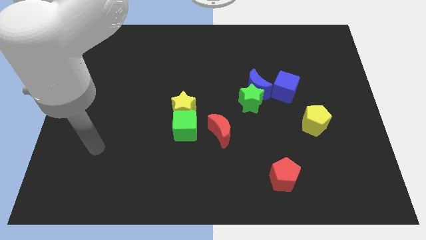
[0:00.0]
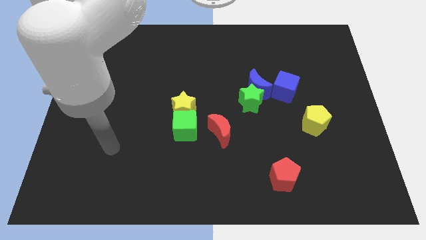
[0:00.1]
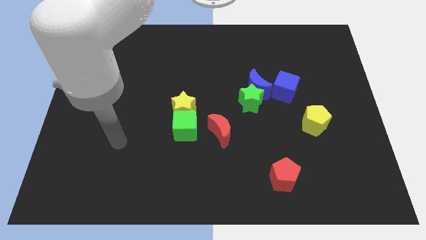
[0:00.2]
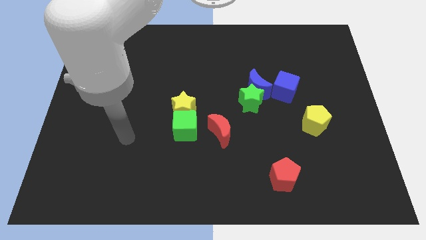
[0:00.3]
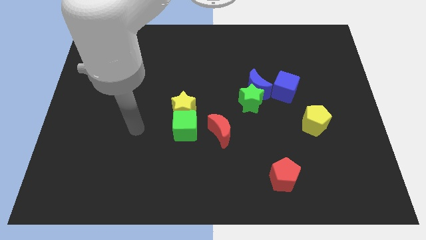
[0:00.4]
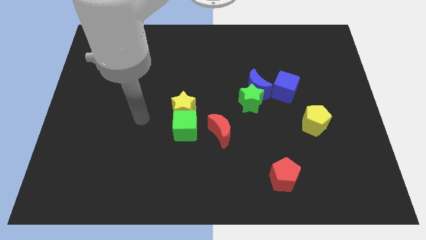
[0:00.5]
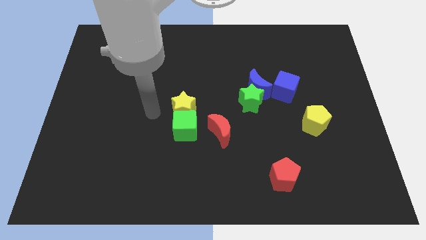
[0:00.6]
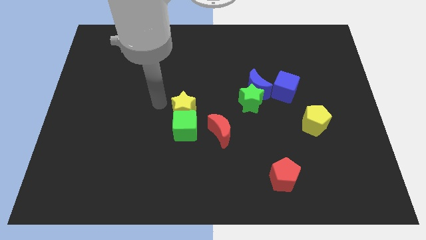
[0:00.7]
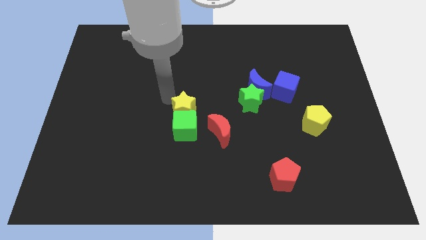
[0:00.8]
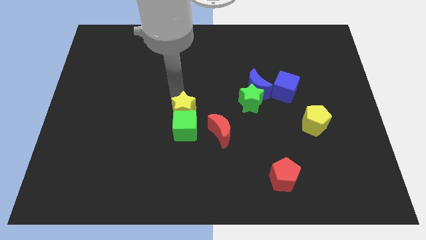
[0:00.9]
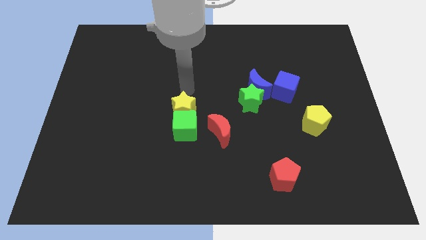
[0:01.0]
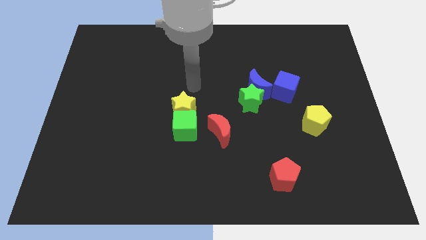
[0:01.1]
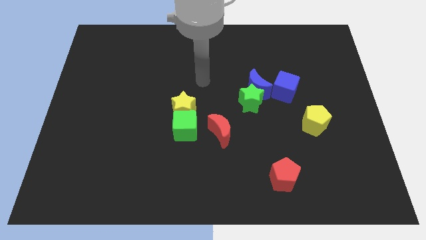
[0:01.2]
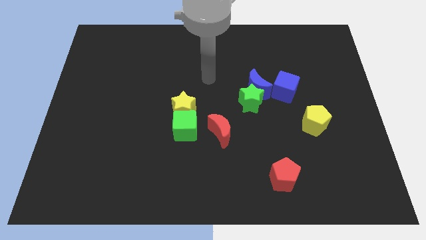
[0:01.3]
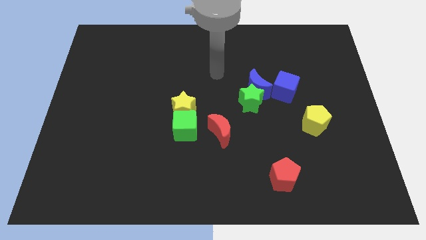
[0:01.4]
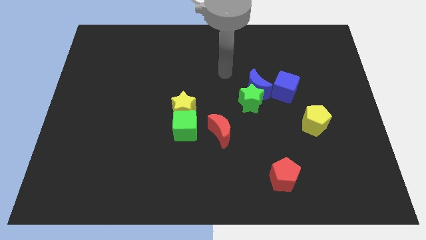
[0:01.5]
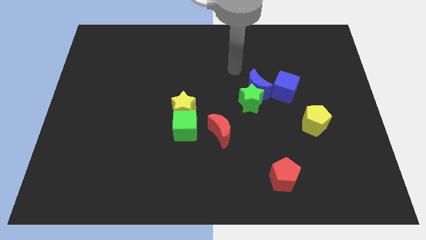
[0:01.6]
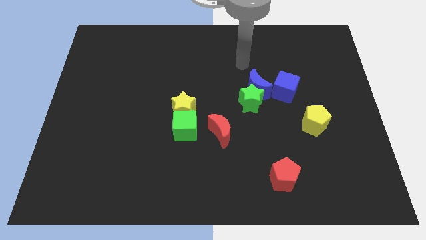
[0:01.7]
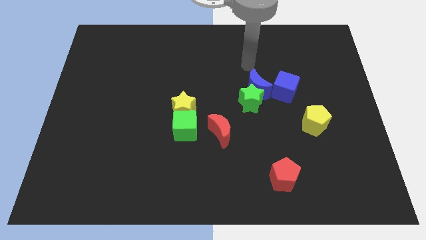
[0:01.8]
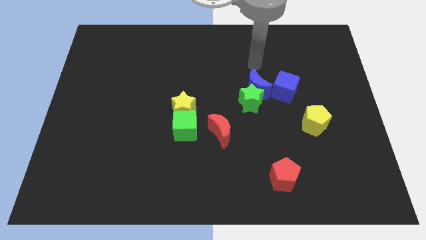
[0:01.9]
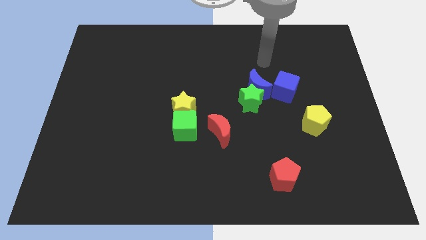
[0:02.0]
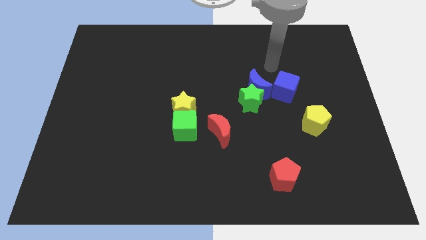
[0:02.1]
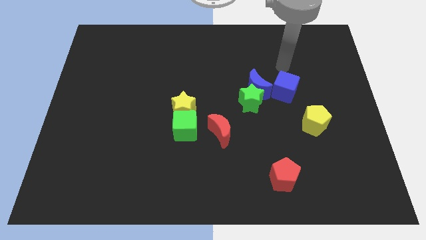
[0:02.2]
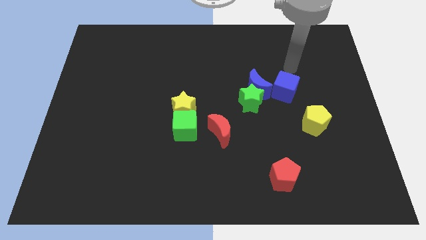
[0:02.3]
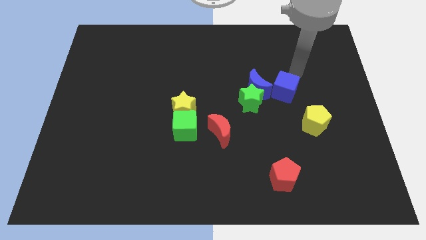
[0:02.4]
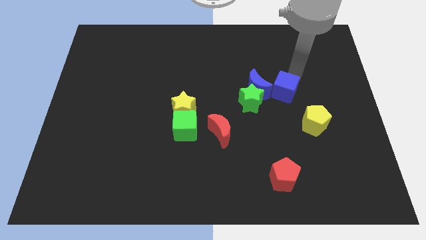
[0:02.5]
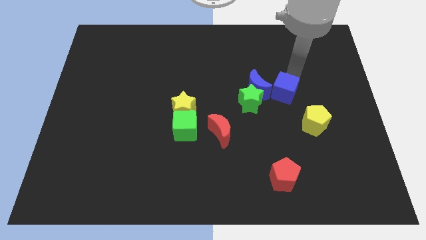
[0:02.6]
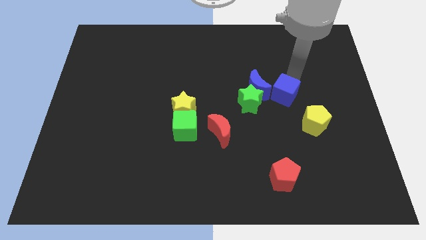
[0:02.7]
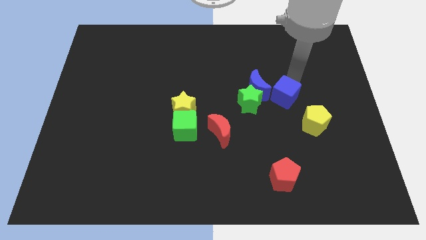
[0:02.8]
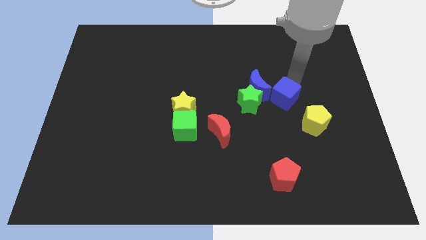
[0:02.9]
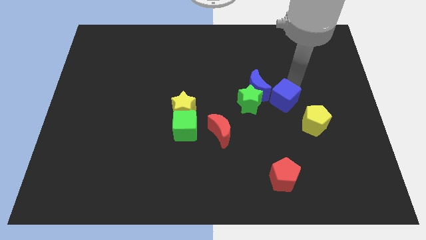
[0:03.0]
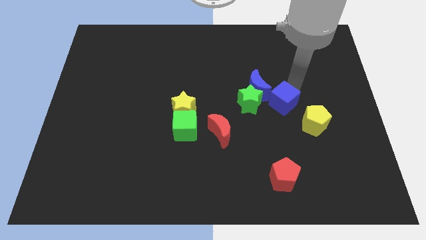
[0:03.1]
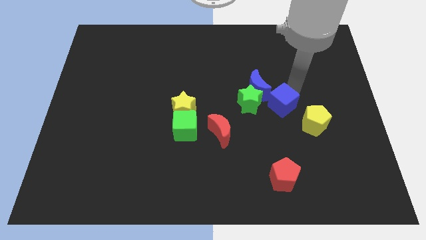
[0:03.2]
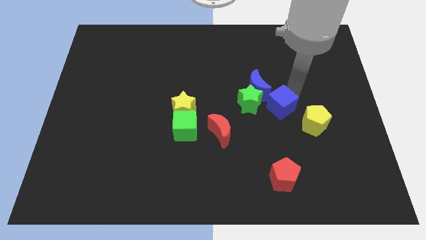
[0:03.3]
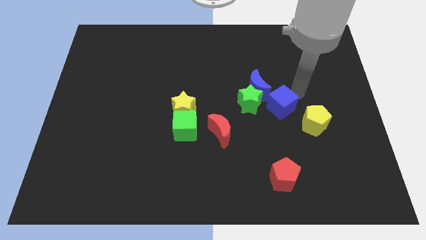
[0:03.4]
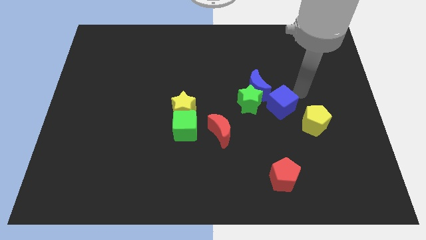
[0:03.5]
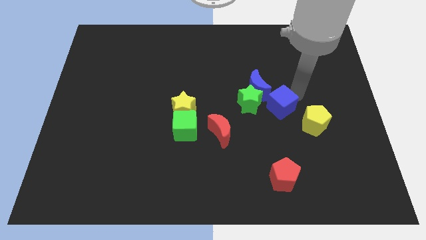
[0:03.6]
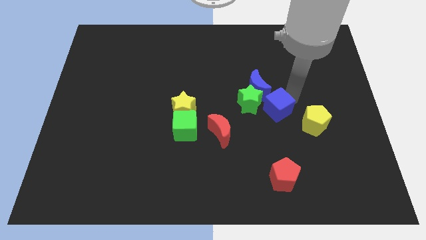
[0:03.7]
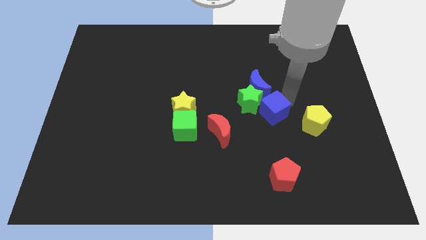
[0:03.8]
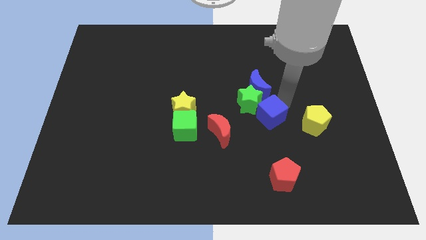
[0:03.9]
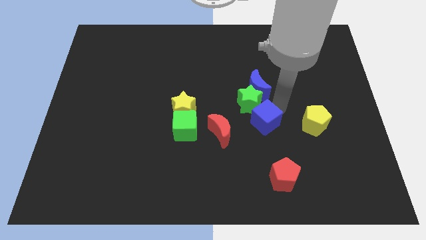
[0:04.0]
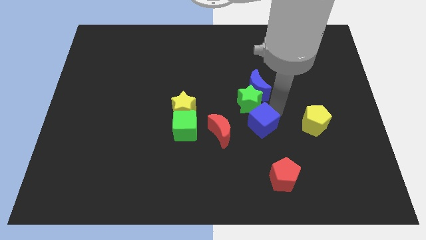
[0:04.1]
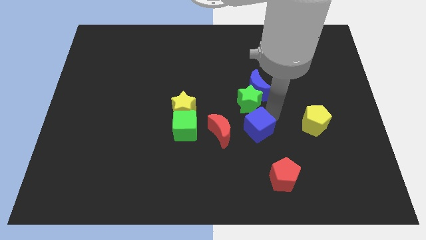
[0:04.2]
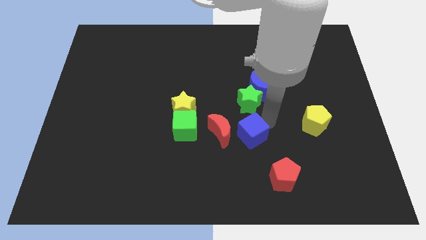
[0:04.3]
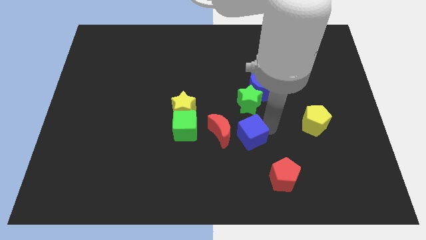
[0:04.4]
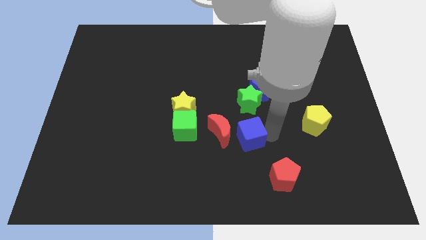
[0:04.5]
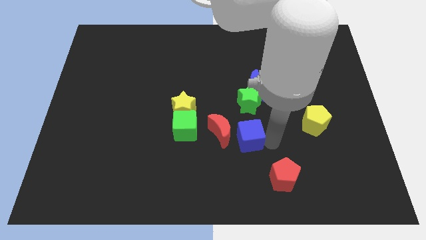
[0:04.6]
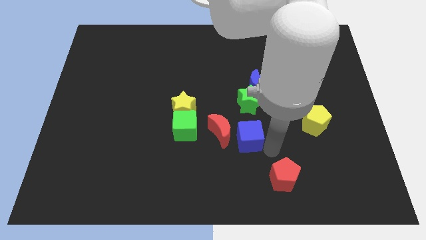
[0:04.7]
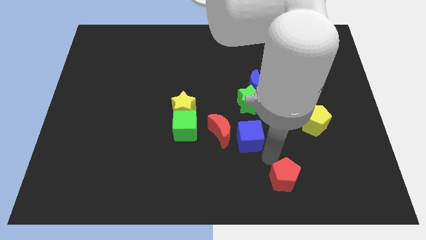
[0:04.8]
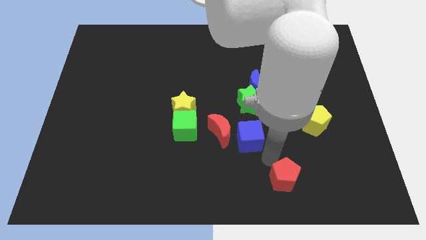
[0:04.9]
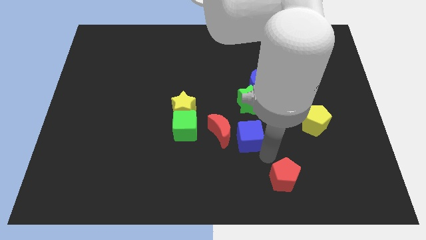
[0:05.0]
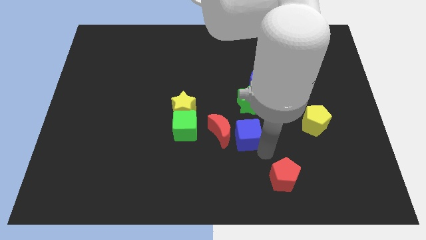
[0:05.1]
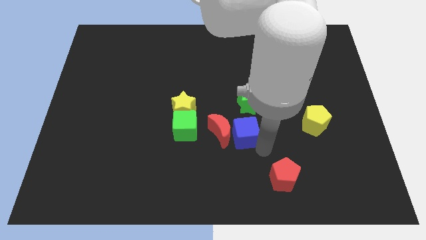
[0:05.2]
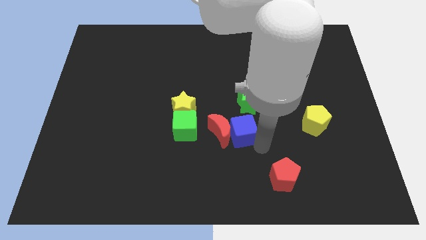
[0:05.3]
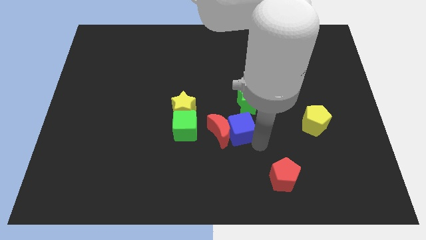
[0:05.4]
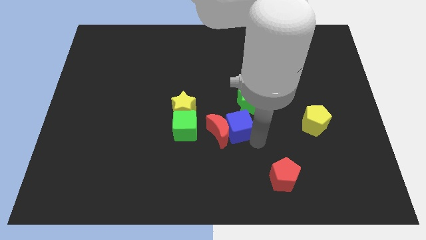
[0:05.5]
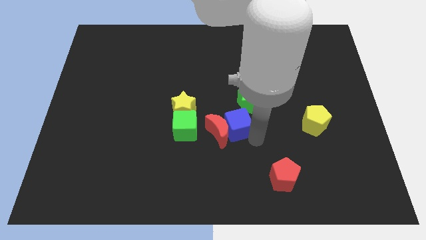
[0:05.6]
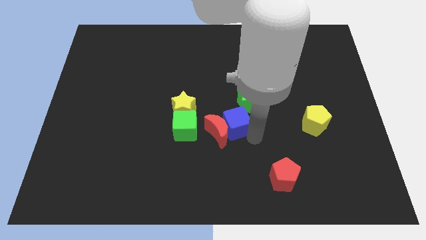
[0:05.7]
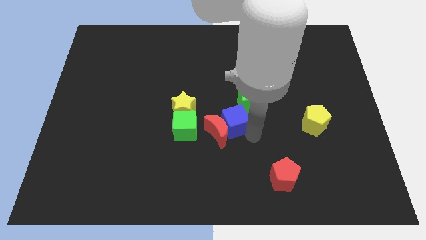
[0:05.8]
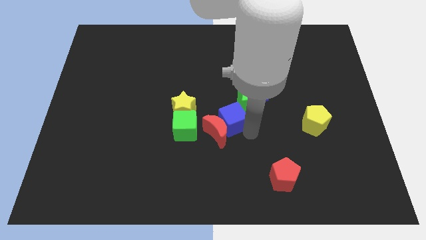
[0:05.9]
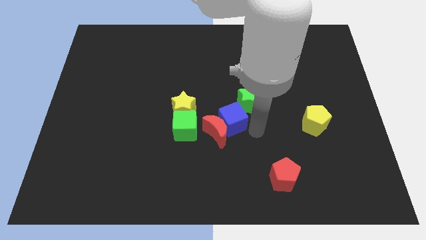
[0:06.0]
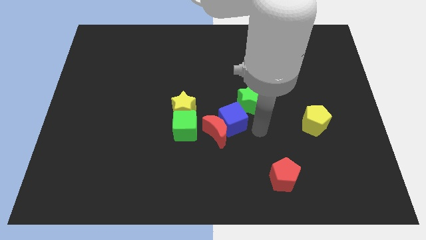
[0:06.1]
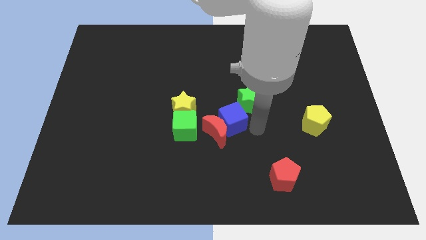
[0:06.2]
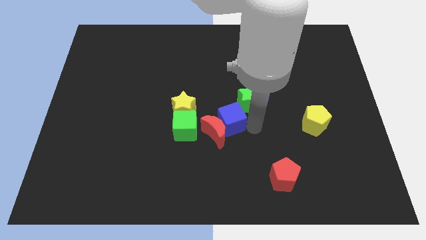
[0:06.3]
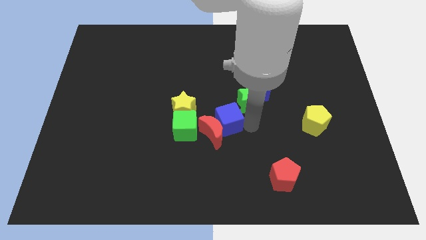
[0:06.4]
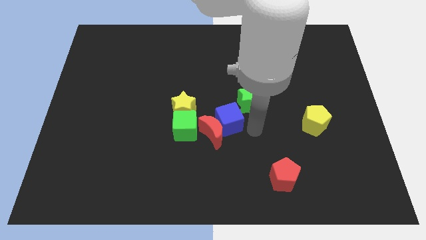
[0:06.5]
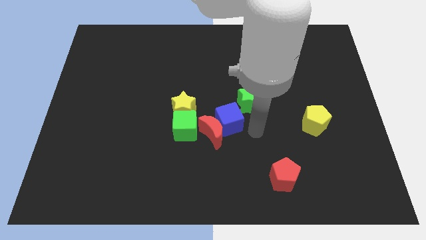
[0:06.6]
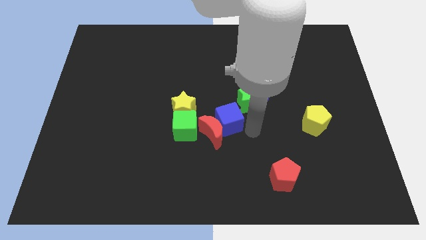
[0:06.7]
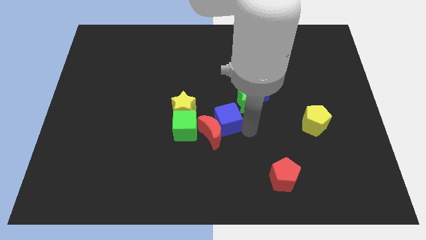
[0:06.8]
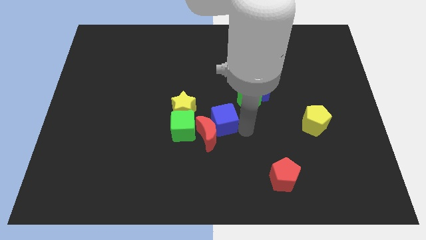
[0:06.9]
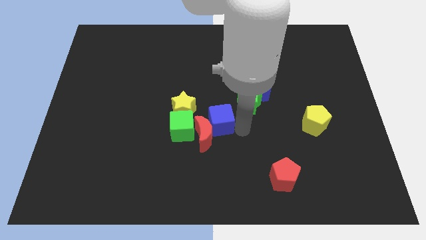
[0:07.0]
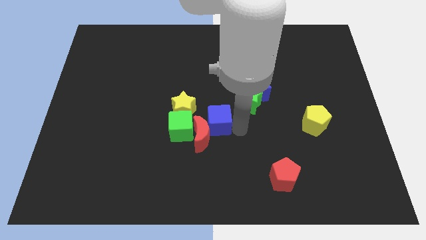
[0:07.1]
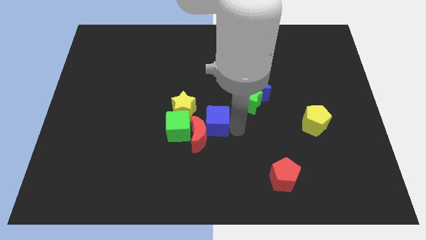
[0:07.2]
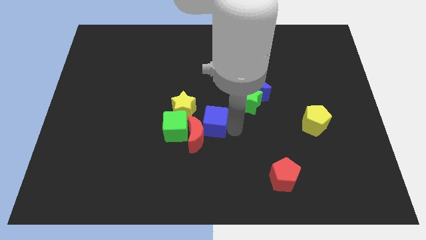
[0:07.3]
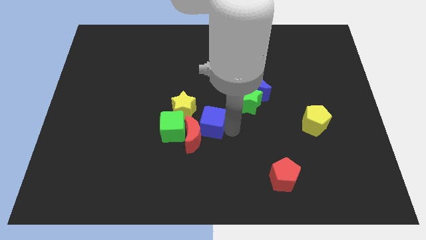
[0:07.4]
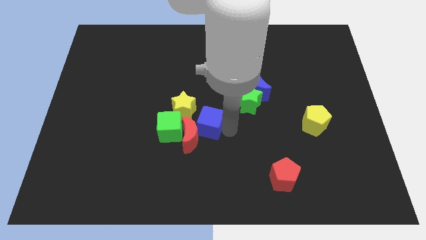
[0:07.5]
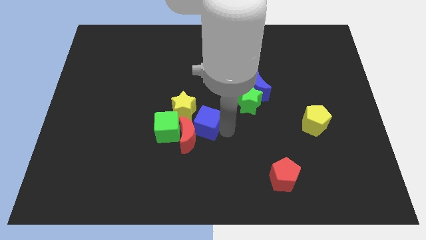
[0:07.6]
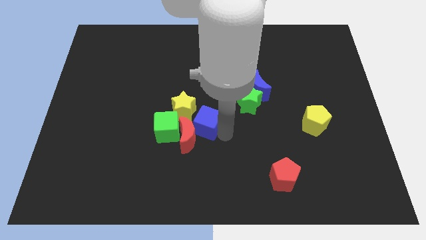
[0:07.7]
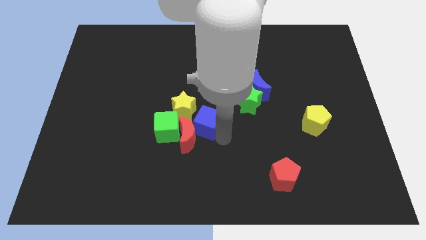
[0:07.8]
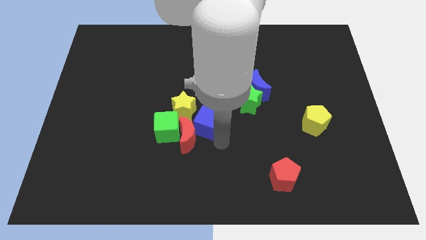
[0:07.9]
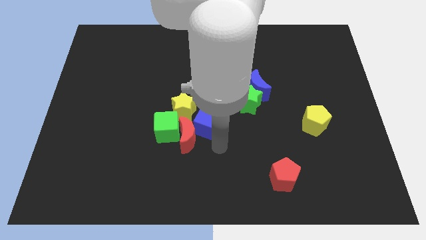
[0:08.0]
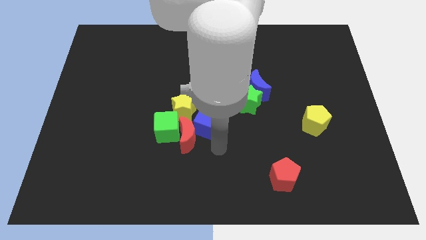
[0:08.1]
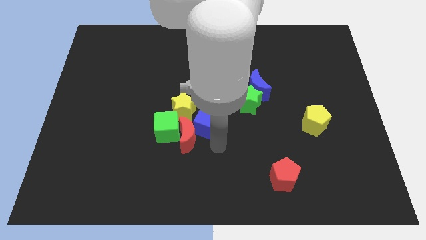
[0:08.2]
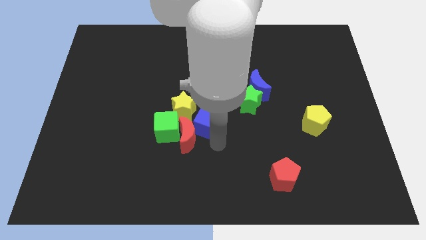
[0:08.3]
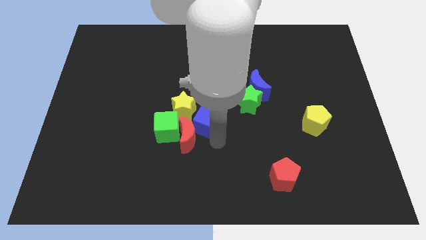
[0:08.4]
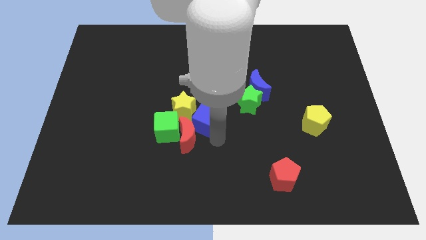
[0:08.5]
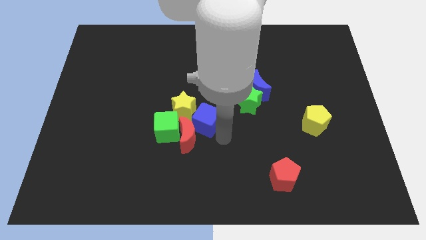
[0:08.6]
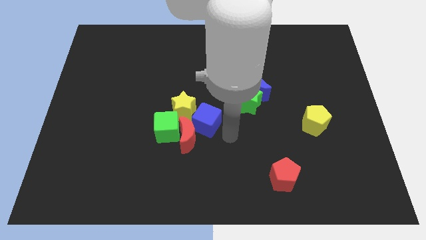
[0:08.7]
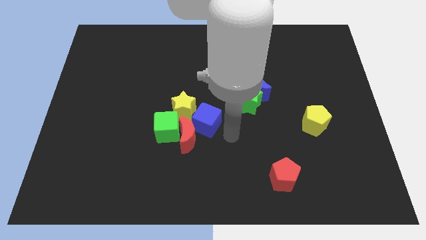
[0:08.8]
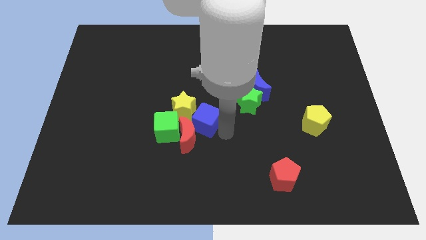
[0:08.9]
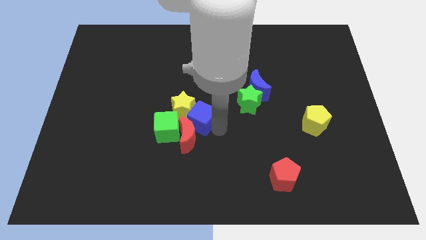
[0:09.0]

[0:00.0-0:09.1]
put the blue cube close to the yellow star
